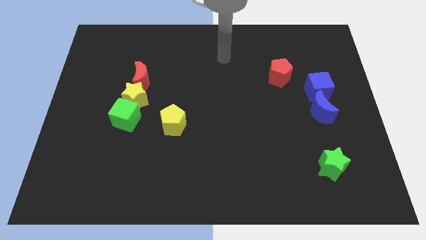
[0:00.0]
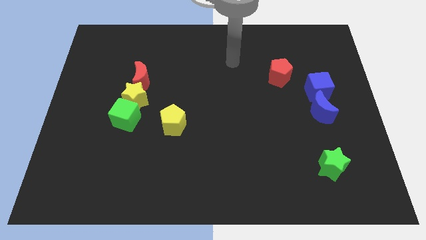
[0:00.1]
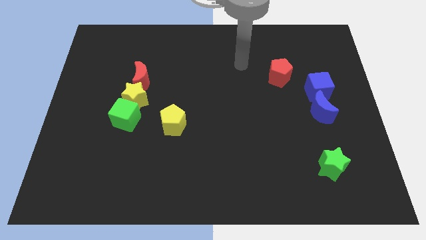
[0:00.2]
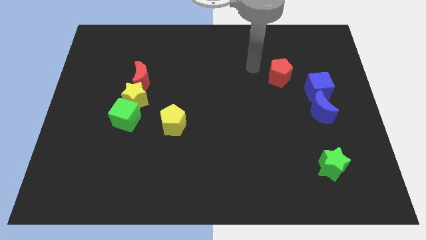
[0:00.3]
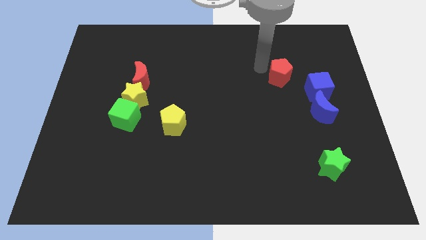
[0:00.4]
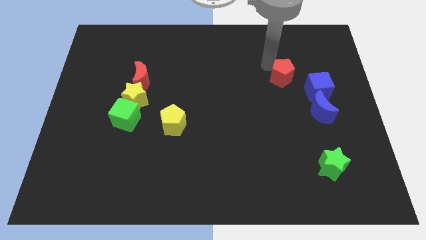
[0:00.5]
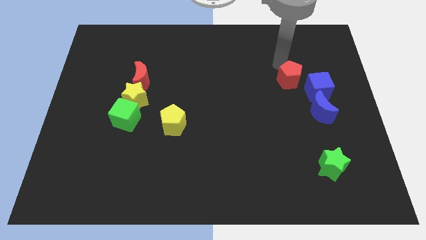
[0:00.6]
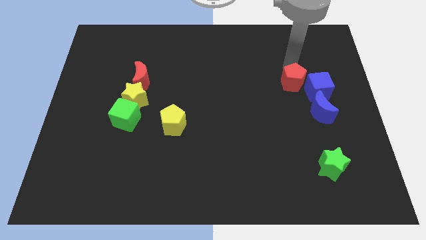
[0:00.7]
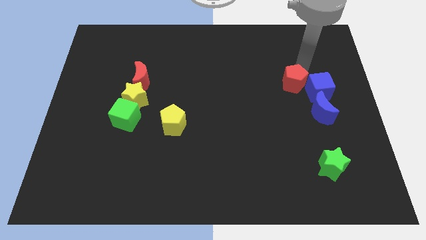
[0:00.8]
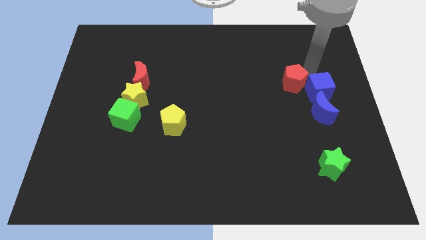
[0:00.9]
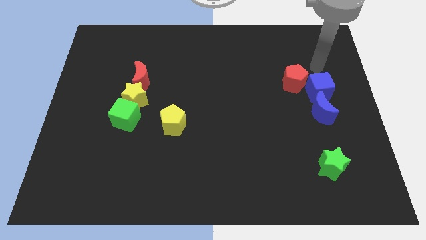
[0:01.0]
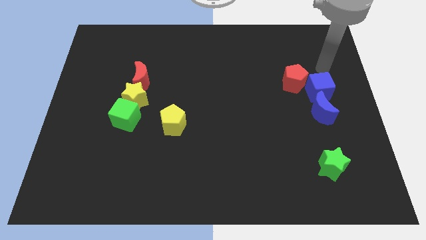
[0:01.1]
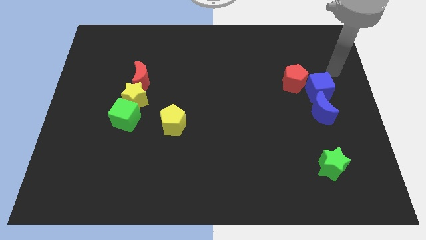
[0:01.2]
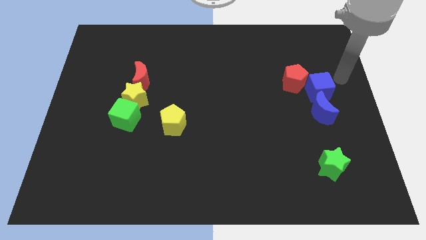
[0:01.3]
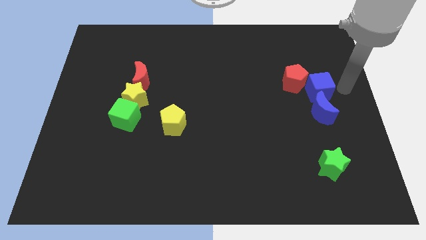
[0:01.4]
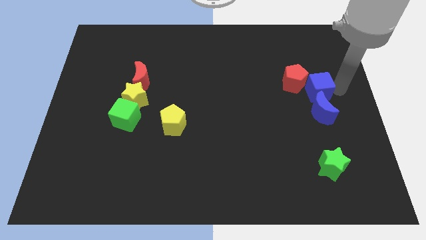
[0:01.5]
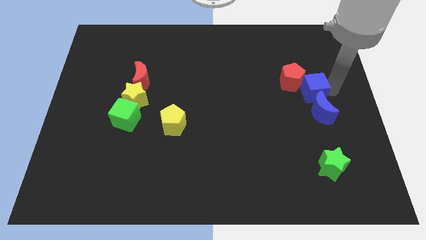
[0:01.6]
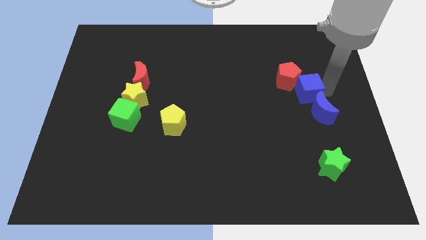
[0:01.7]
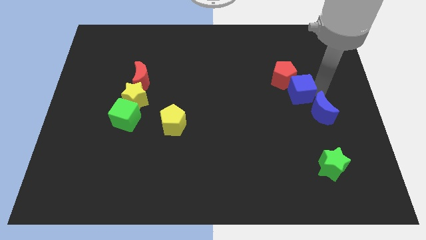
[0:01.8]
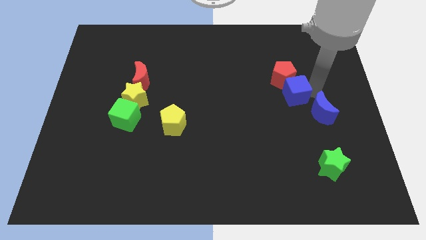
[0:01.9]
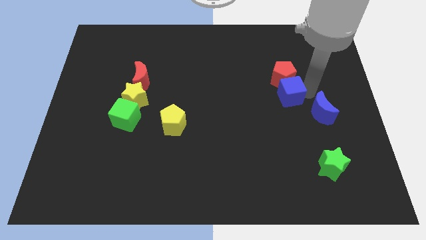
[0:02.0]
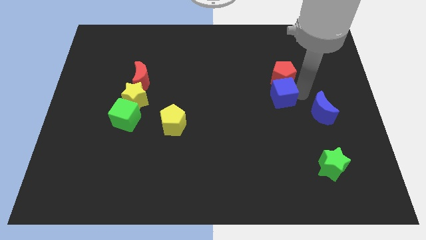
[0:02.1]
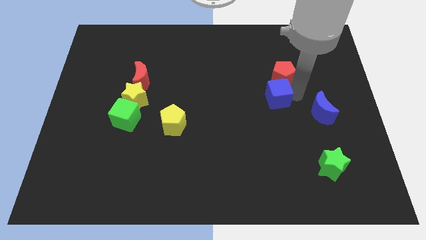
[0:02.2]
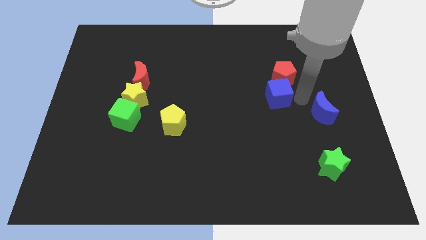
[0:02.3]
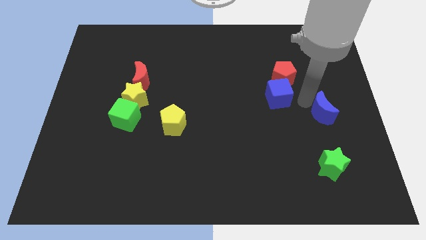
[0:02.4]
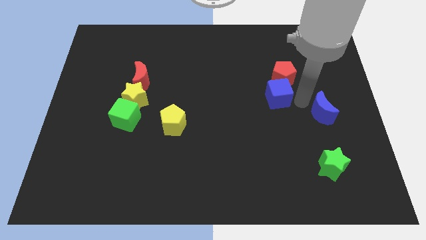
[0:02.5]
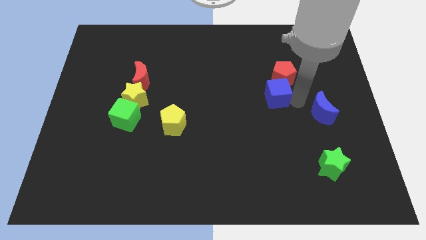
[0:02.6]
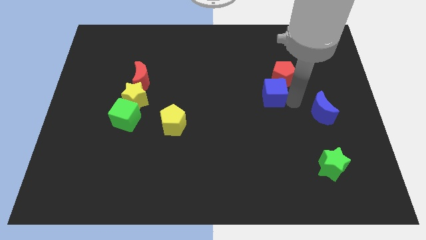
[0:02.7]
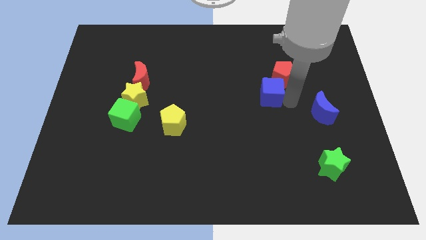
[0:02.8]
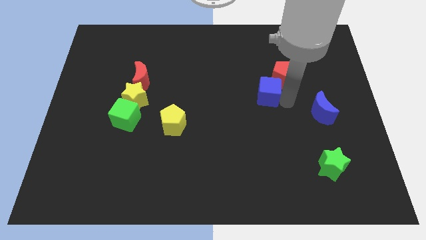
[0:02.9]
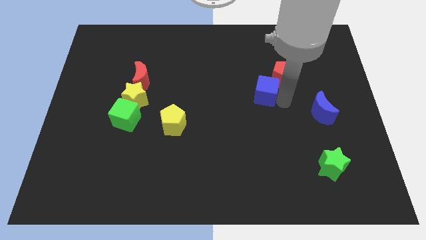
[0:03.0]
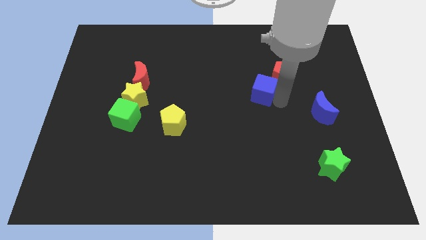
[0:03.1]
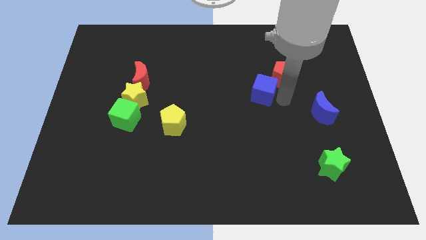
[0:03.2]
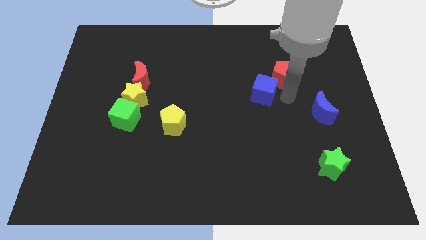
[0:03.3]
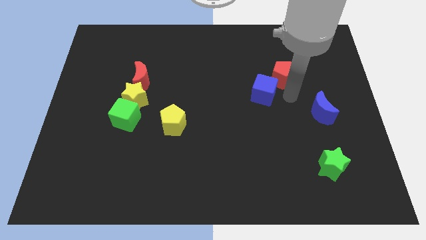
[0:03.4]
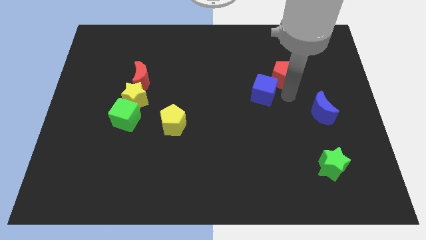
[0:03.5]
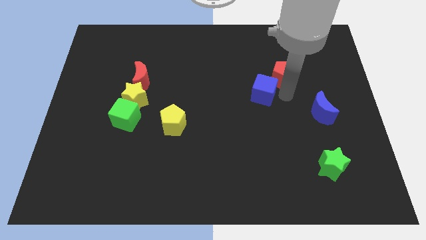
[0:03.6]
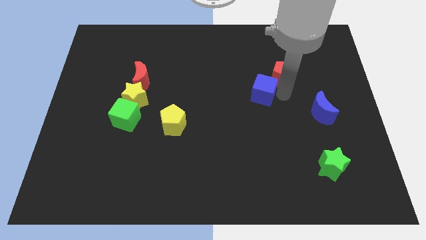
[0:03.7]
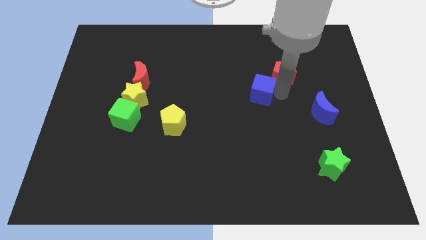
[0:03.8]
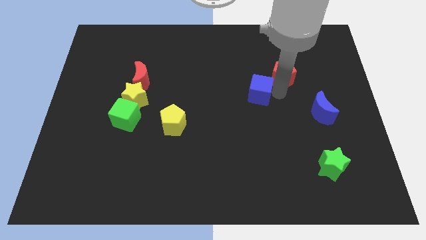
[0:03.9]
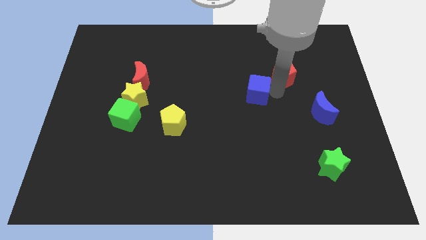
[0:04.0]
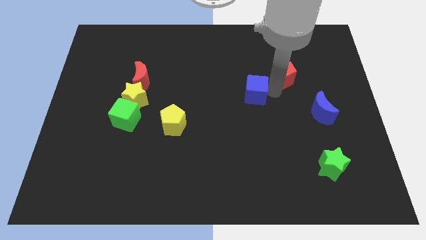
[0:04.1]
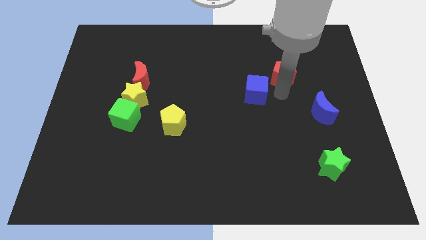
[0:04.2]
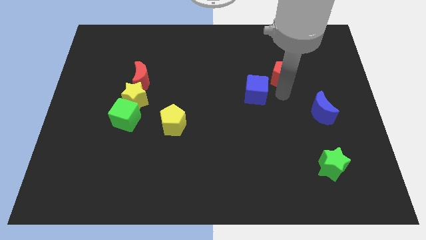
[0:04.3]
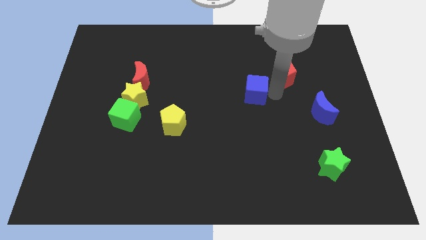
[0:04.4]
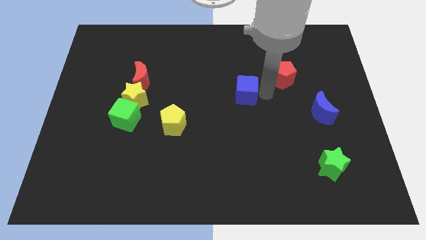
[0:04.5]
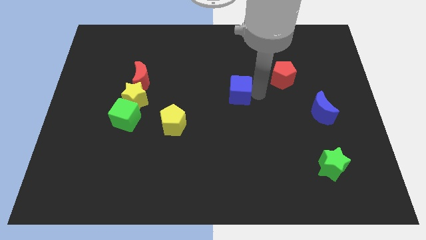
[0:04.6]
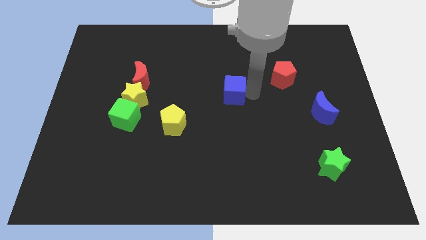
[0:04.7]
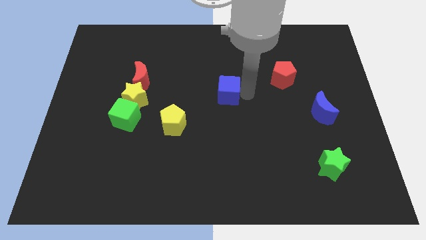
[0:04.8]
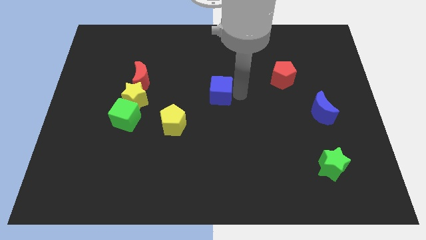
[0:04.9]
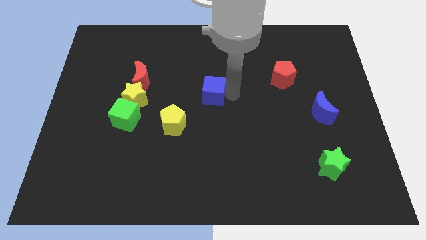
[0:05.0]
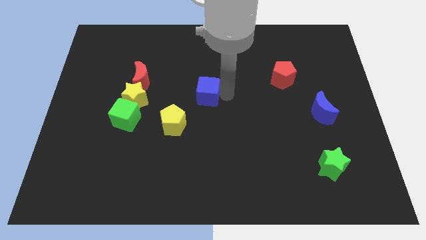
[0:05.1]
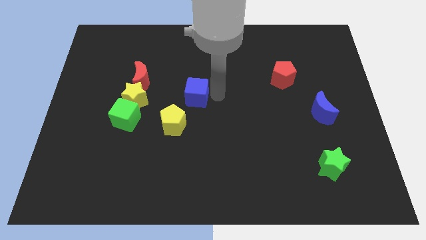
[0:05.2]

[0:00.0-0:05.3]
push the blue cube above the yellow pentagon

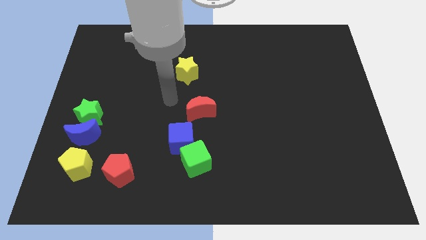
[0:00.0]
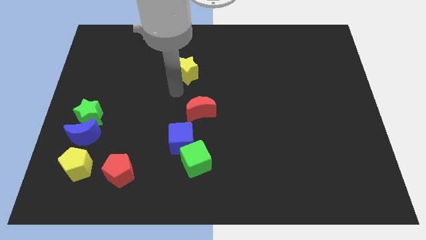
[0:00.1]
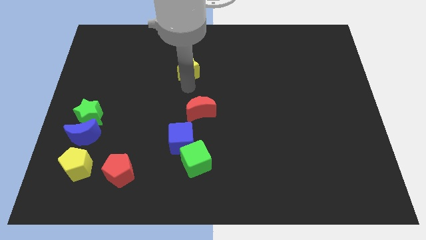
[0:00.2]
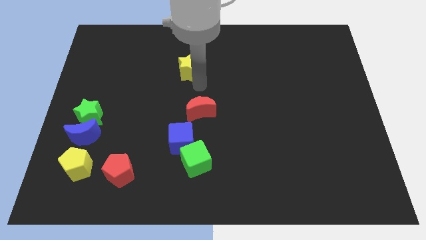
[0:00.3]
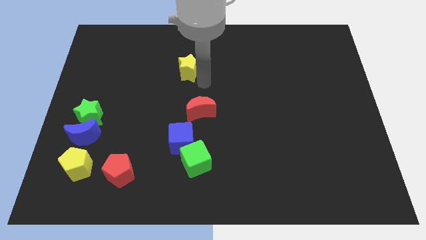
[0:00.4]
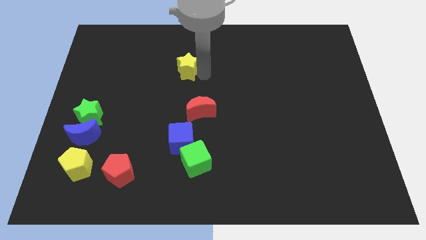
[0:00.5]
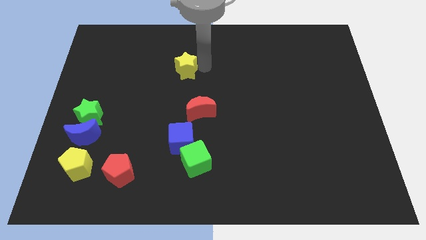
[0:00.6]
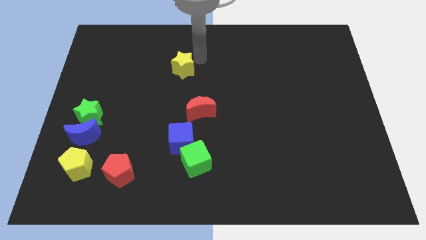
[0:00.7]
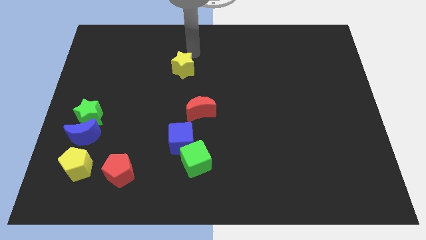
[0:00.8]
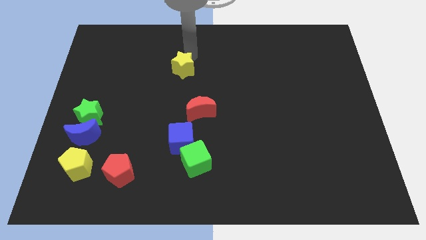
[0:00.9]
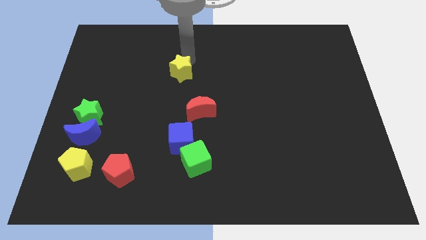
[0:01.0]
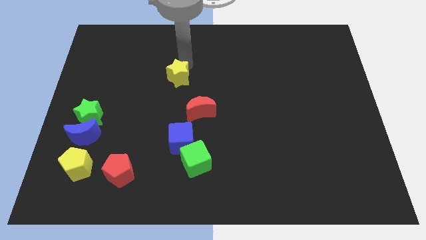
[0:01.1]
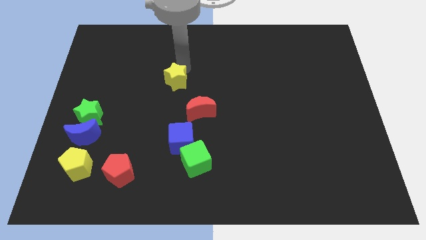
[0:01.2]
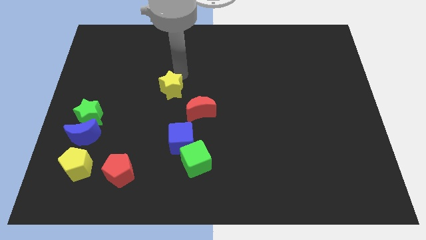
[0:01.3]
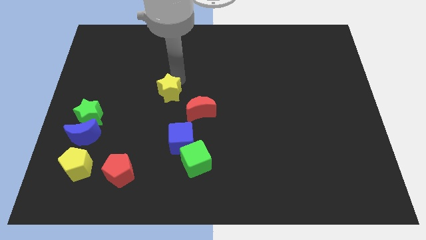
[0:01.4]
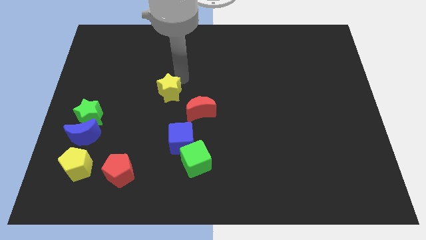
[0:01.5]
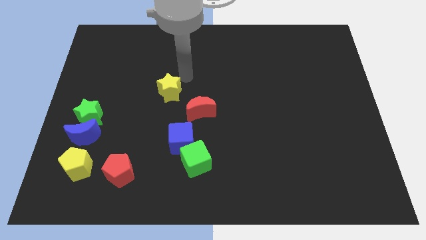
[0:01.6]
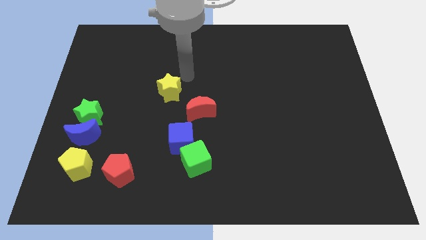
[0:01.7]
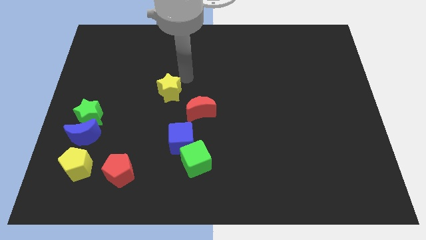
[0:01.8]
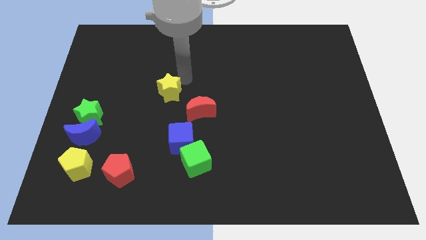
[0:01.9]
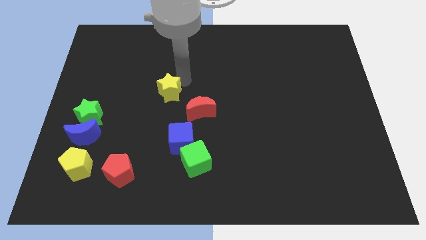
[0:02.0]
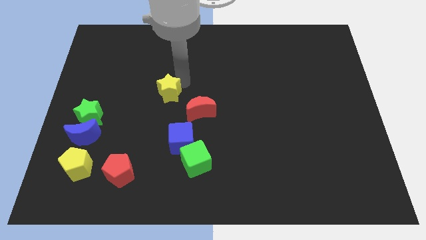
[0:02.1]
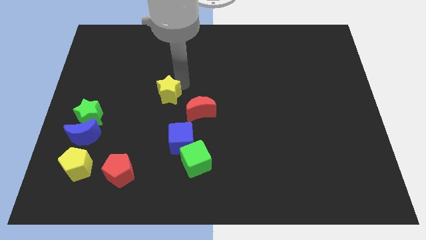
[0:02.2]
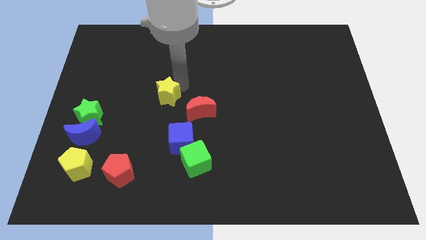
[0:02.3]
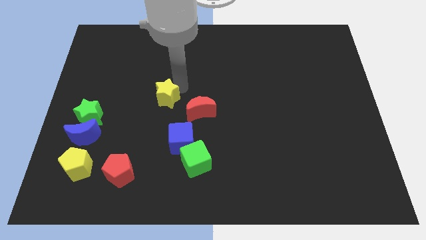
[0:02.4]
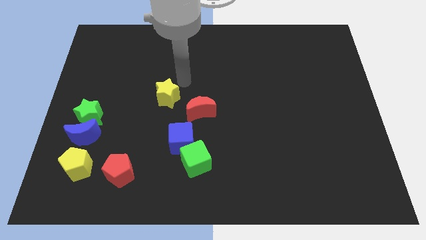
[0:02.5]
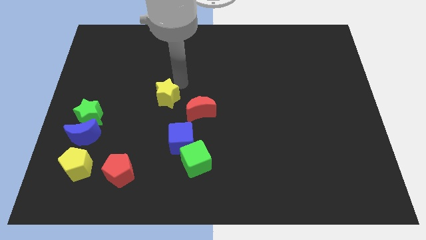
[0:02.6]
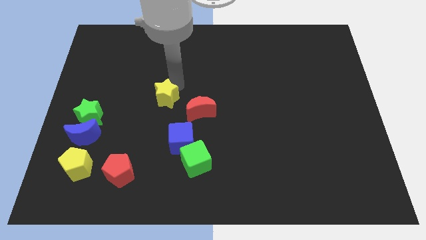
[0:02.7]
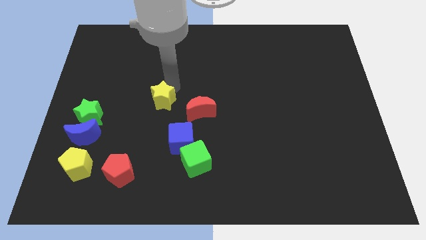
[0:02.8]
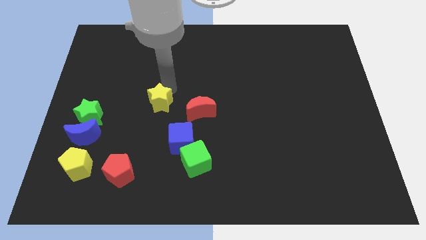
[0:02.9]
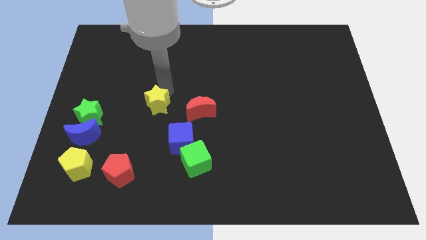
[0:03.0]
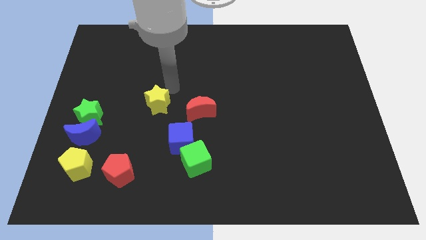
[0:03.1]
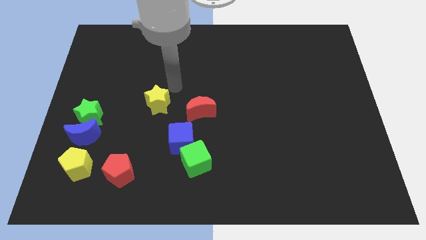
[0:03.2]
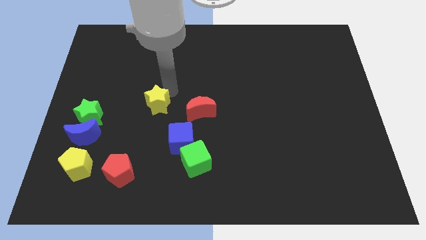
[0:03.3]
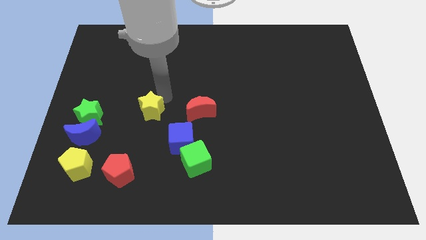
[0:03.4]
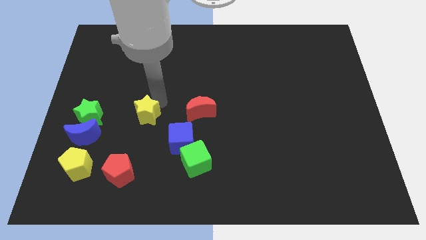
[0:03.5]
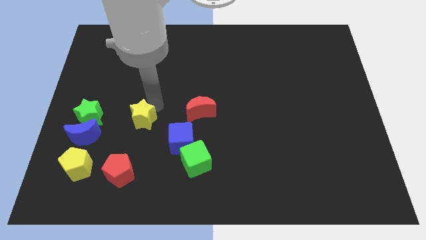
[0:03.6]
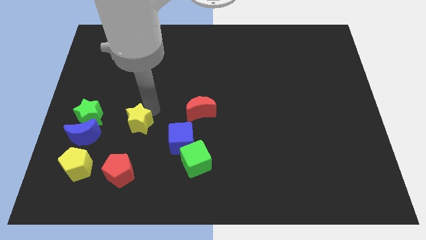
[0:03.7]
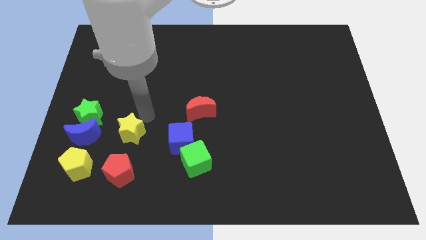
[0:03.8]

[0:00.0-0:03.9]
move the yellow star to the top right side of the yellow pentagon
